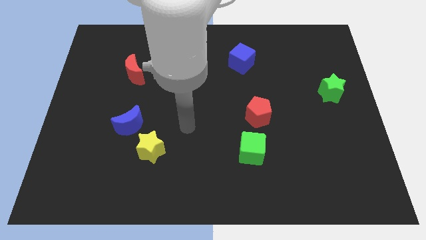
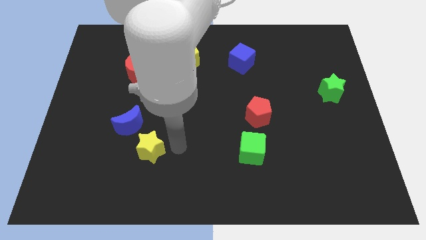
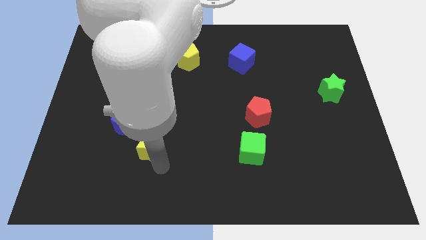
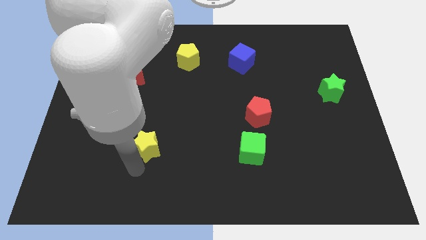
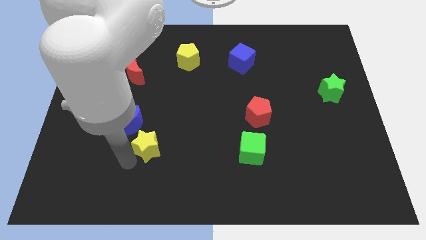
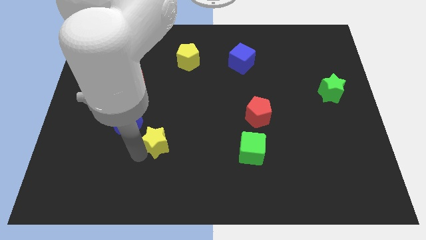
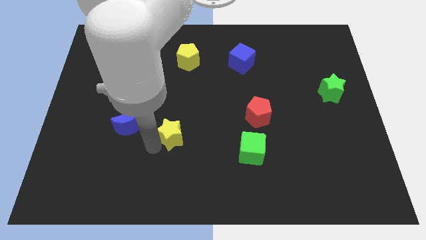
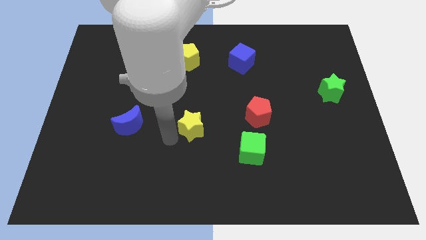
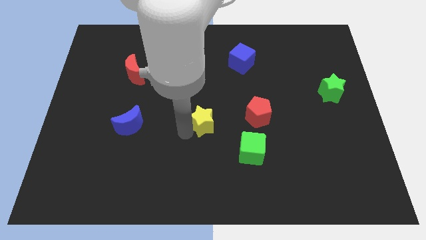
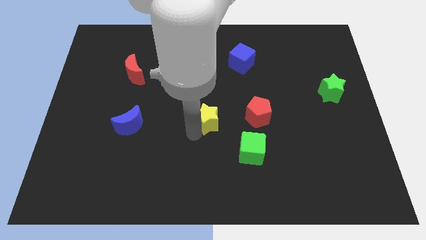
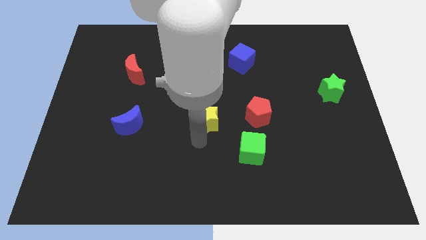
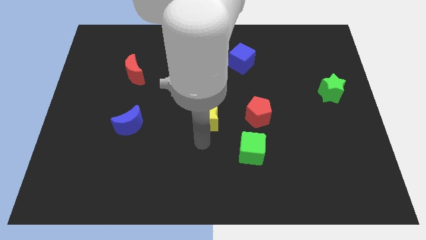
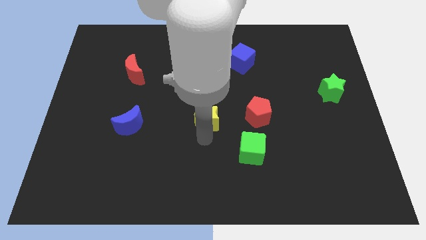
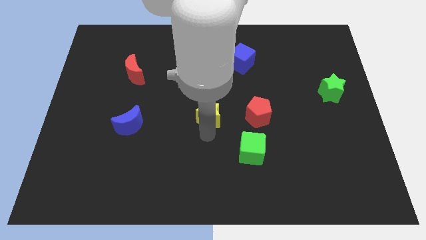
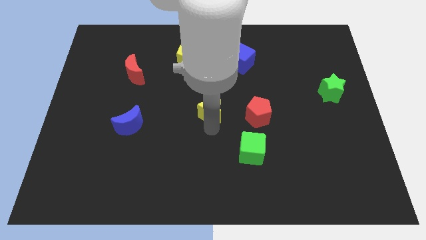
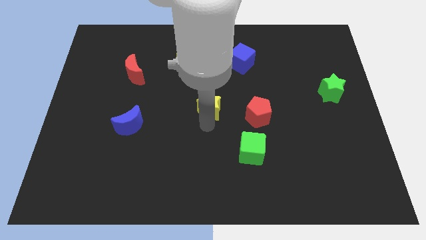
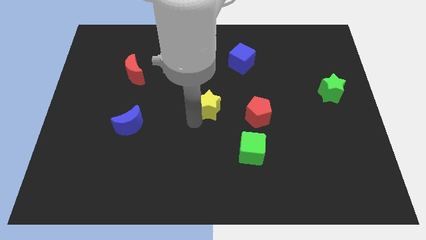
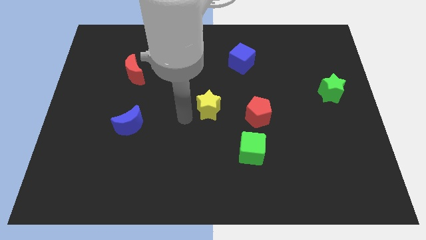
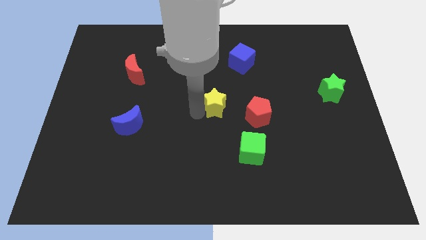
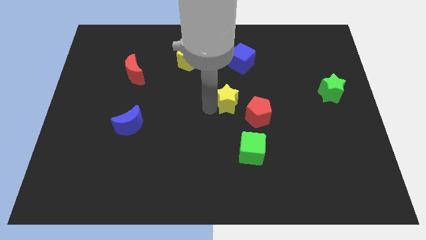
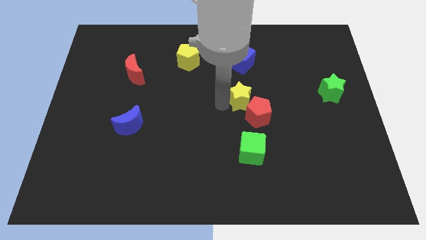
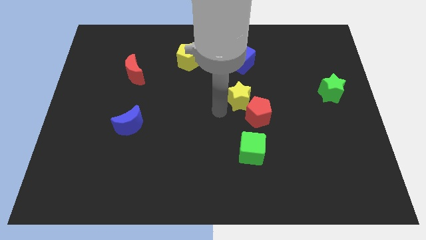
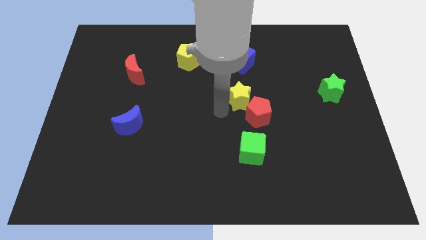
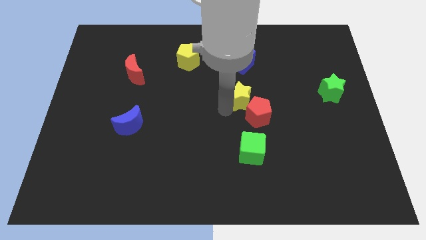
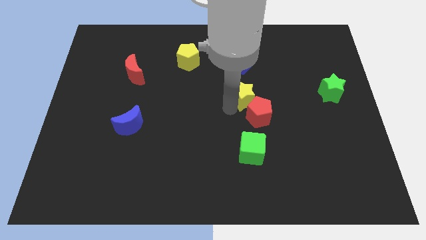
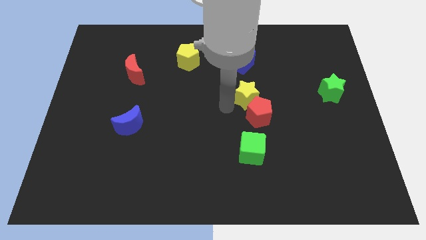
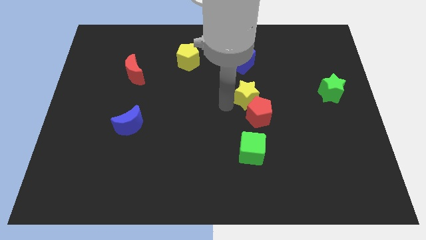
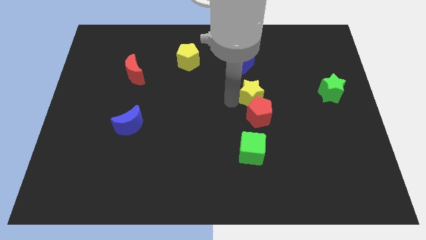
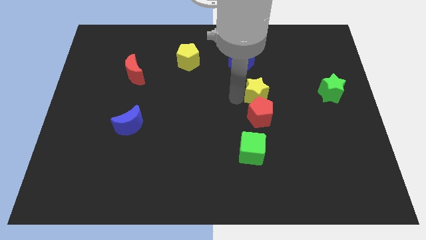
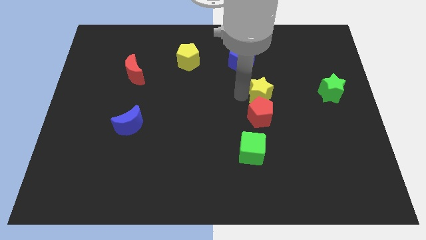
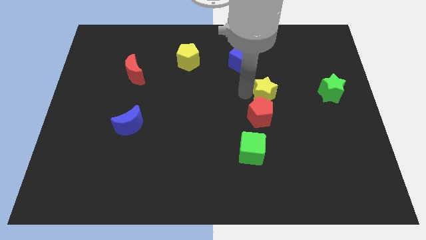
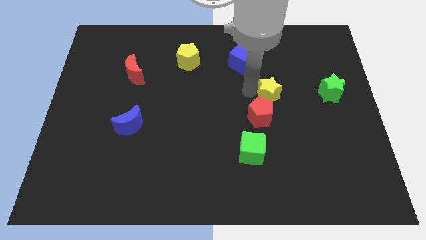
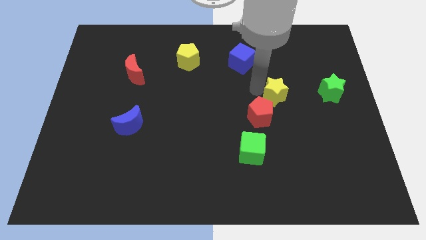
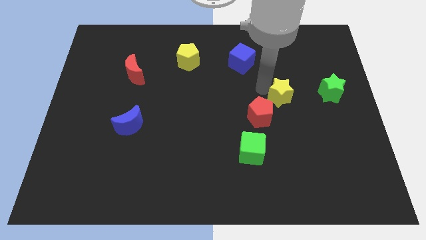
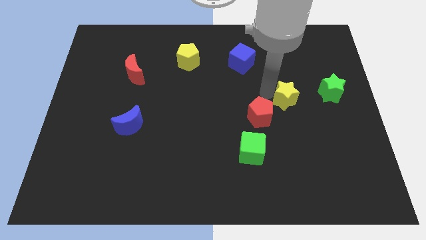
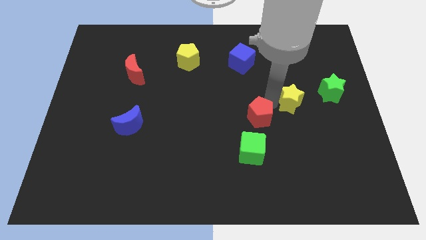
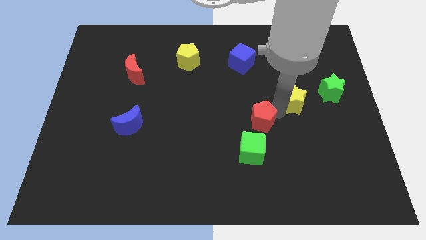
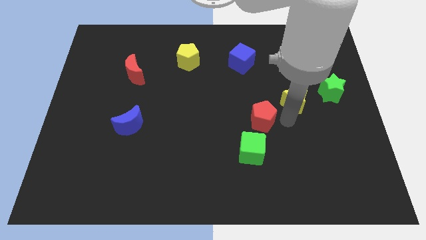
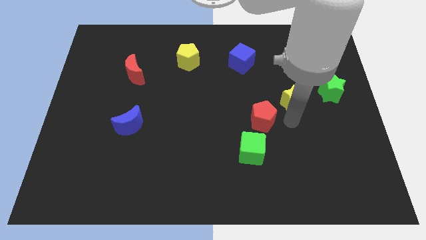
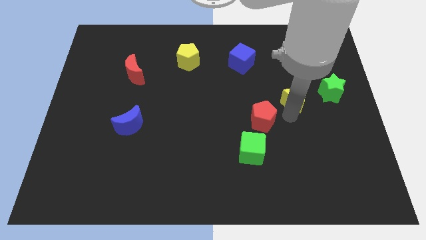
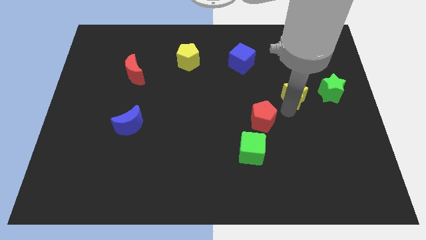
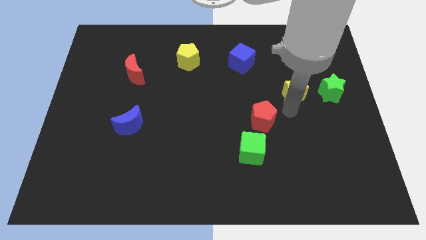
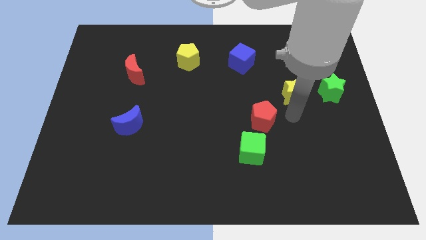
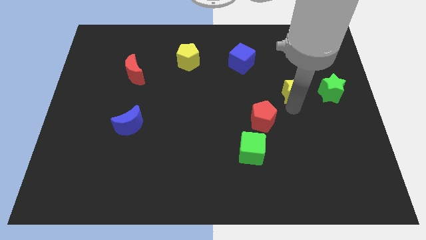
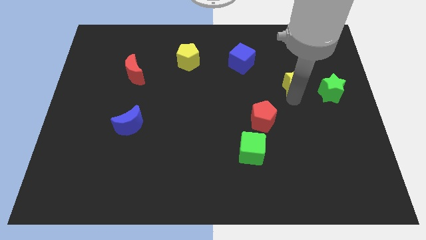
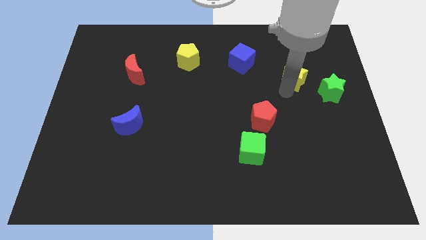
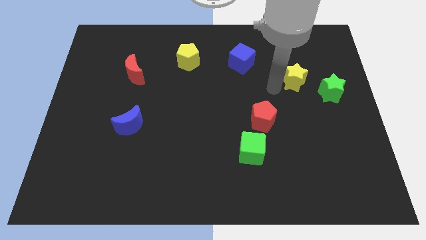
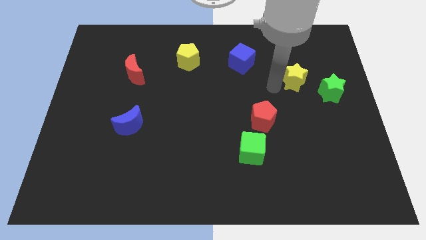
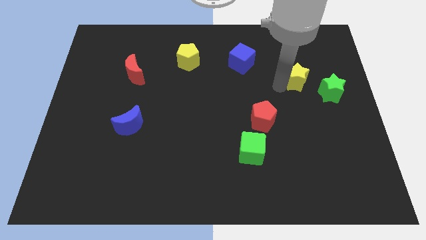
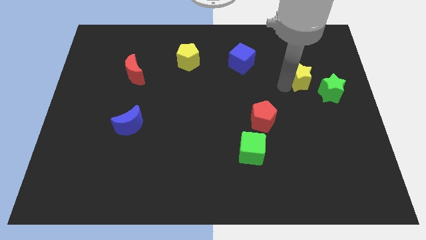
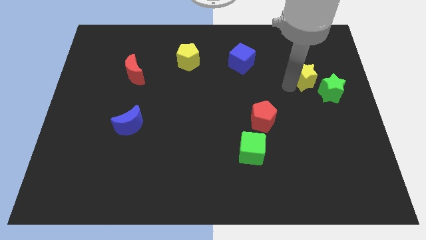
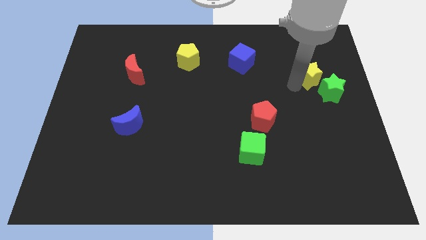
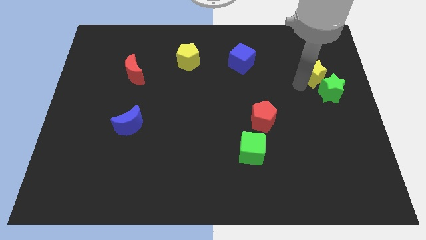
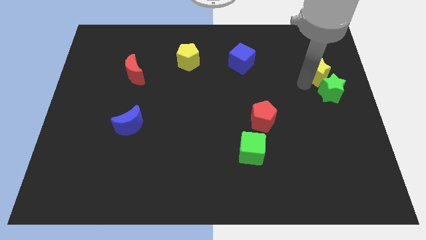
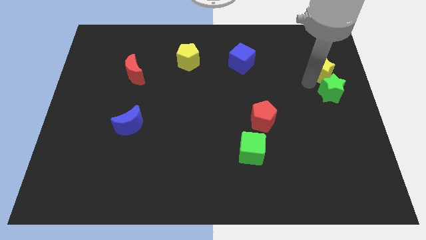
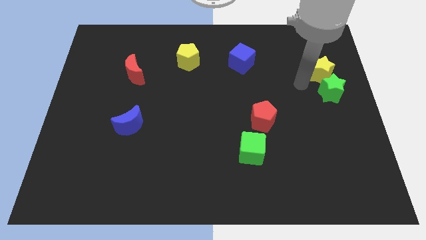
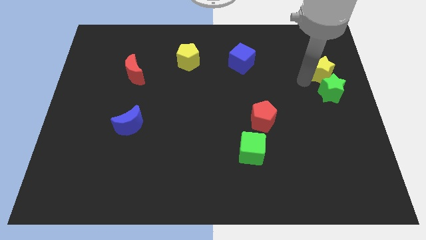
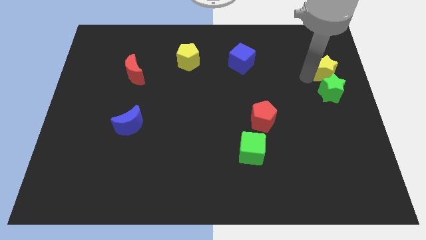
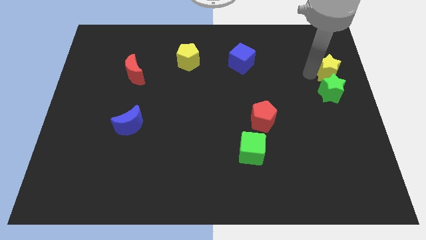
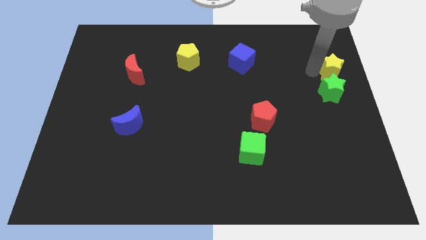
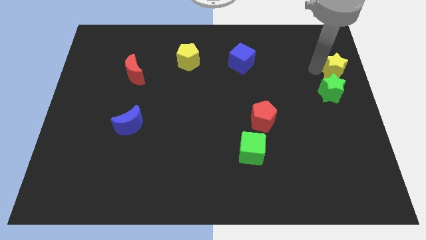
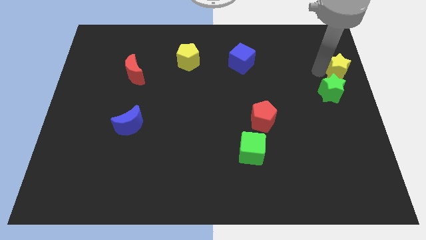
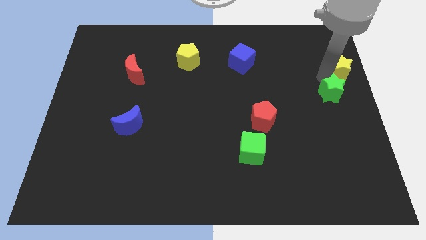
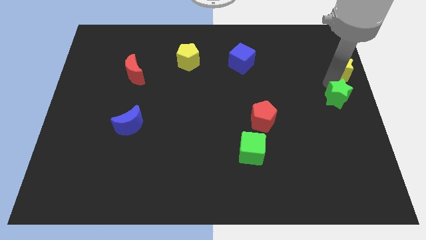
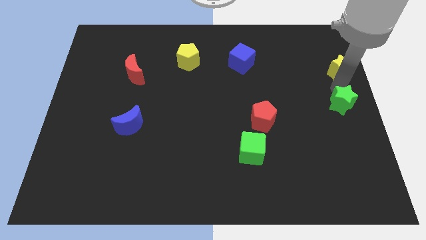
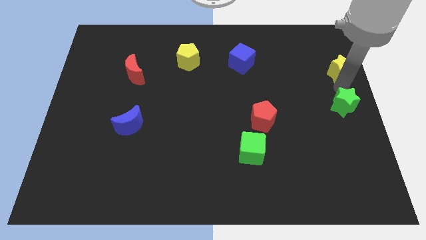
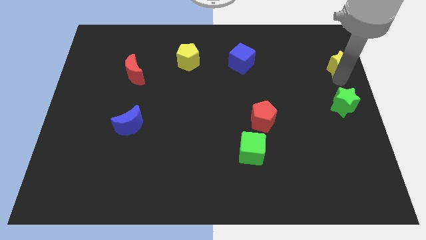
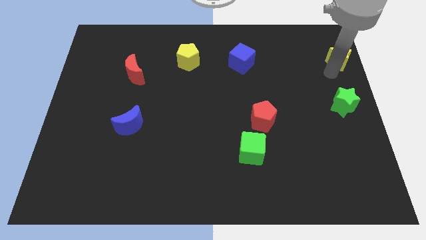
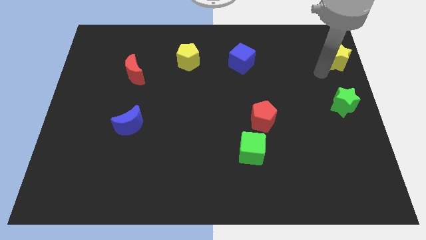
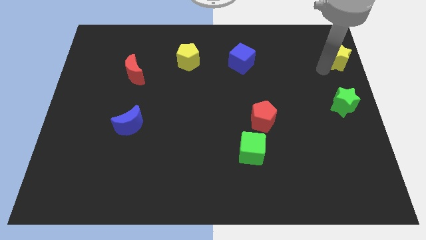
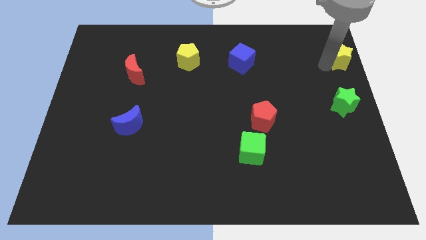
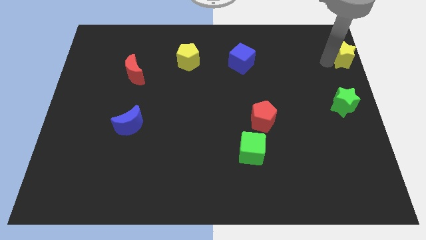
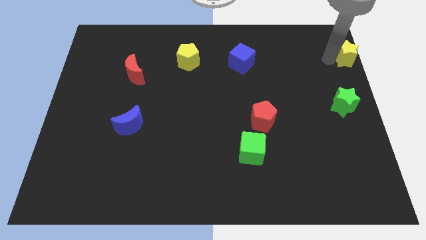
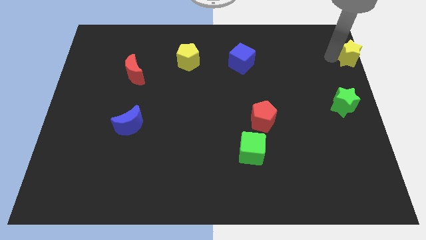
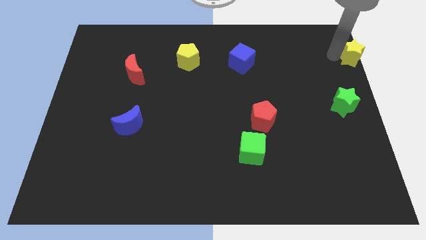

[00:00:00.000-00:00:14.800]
move the yellow star to the upper right corner
